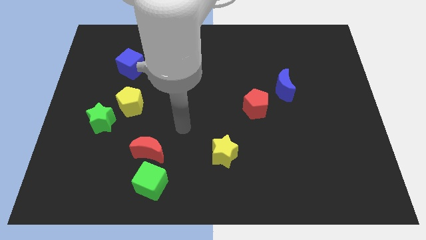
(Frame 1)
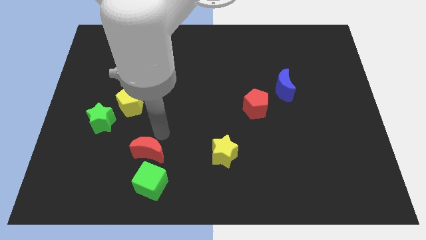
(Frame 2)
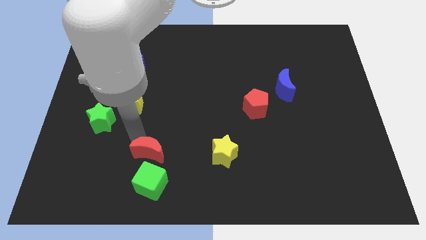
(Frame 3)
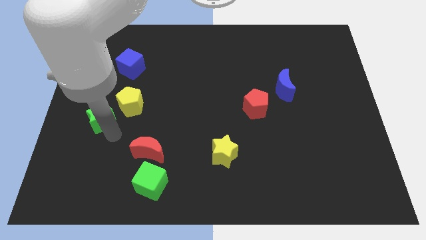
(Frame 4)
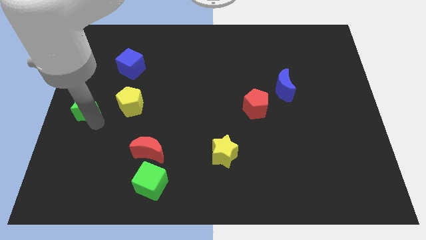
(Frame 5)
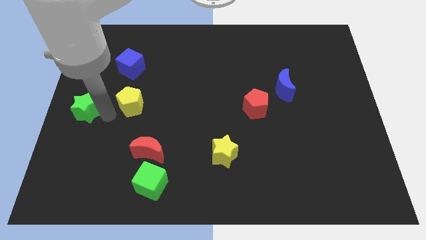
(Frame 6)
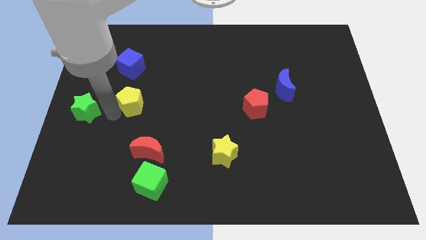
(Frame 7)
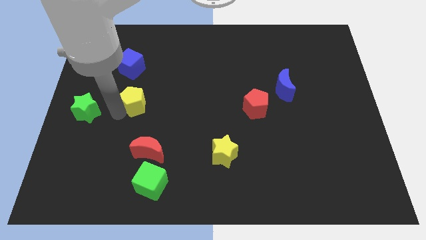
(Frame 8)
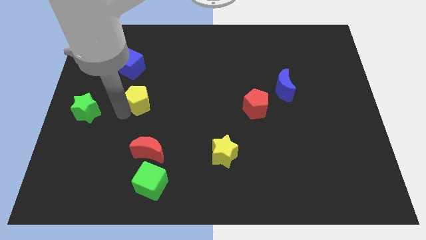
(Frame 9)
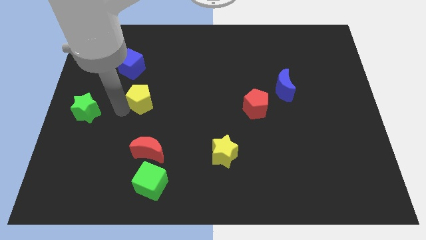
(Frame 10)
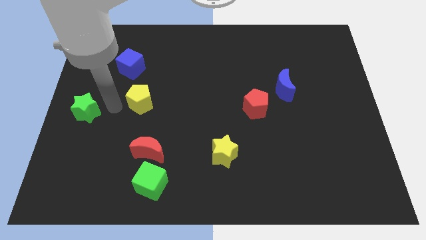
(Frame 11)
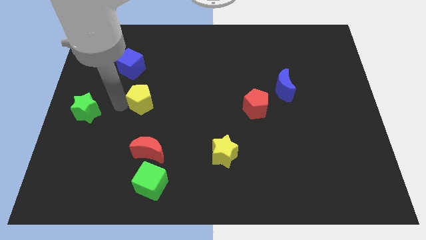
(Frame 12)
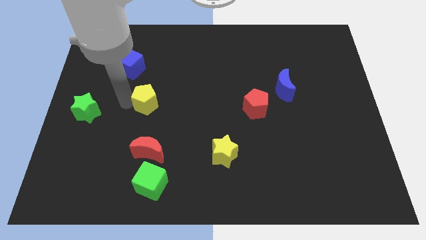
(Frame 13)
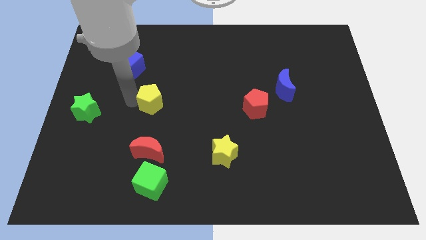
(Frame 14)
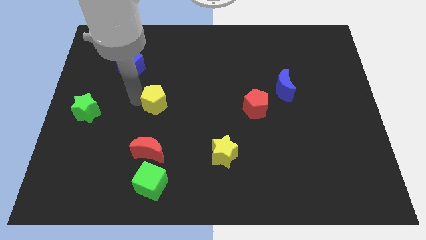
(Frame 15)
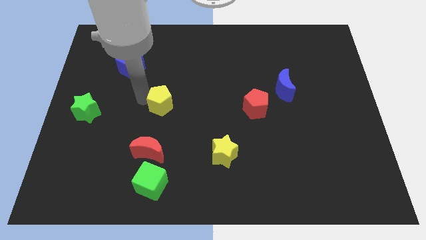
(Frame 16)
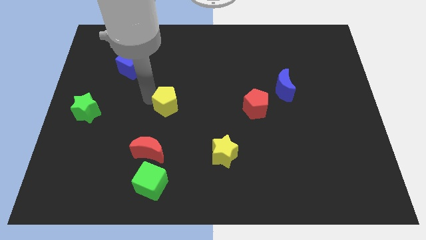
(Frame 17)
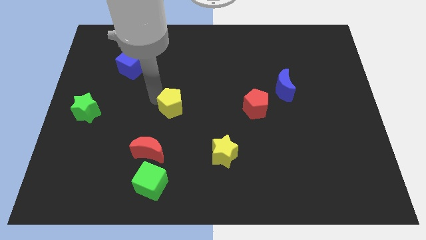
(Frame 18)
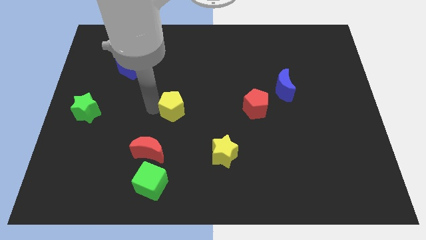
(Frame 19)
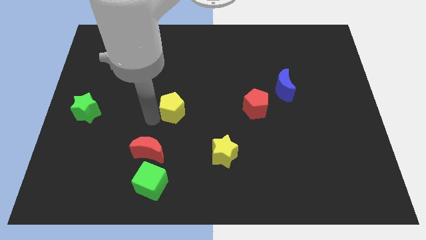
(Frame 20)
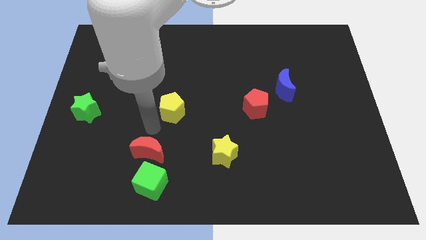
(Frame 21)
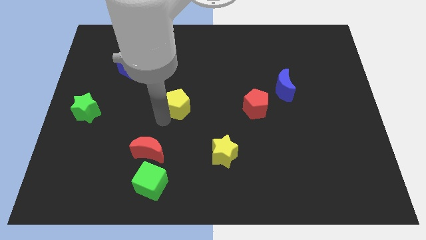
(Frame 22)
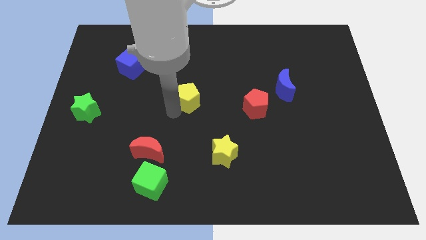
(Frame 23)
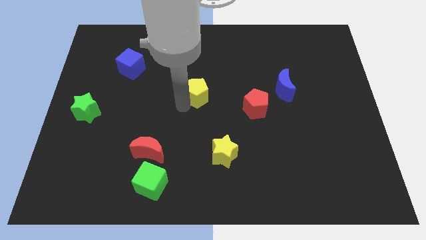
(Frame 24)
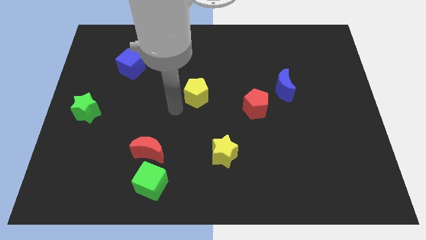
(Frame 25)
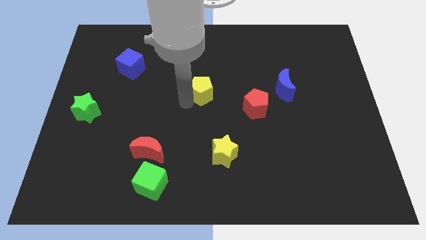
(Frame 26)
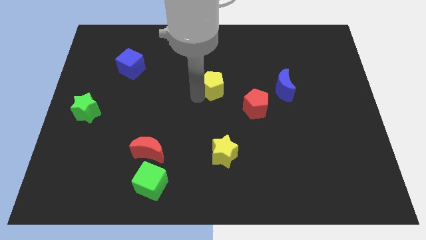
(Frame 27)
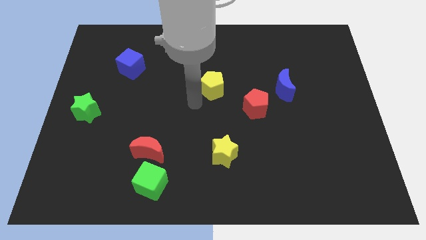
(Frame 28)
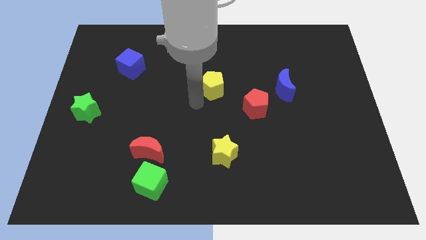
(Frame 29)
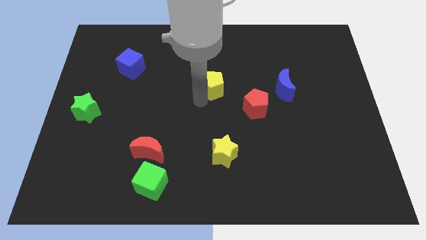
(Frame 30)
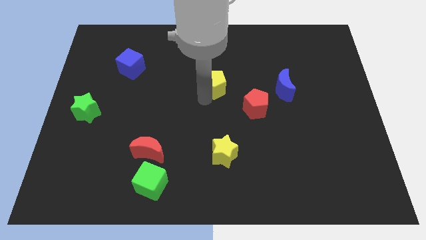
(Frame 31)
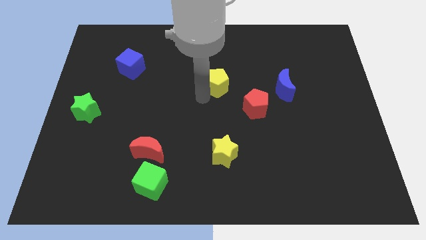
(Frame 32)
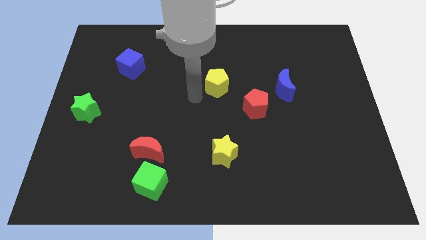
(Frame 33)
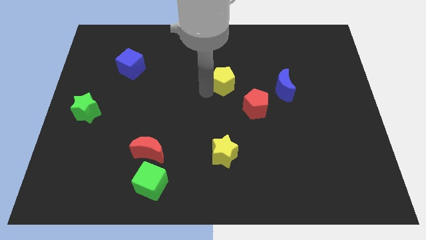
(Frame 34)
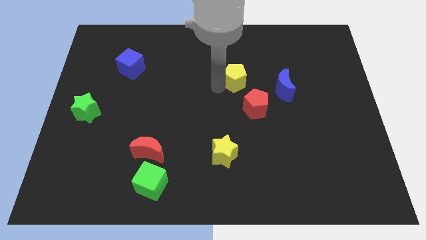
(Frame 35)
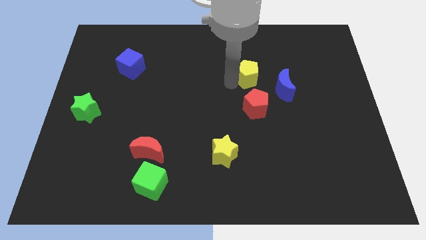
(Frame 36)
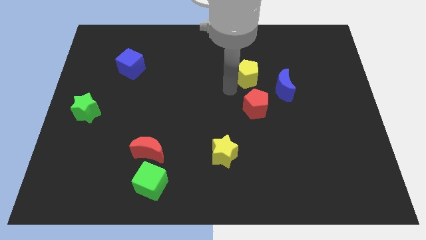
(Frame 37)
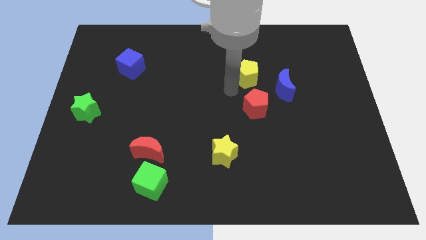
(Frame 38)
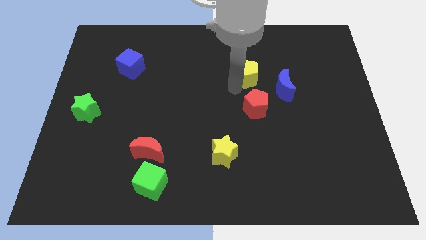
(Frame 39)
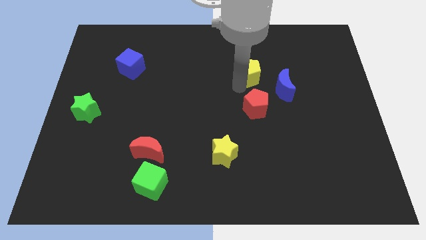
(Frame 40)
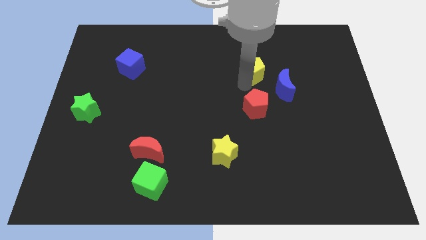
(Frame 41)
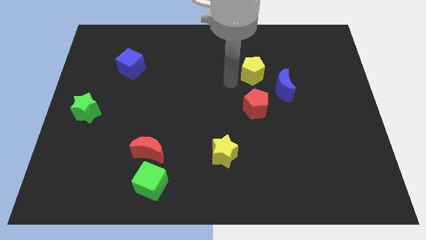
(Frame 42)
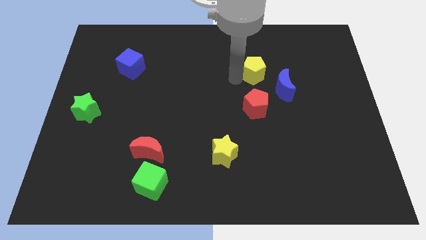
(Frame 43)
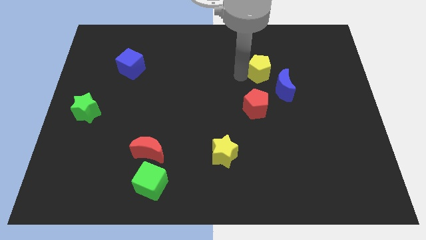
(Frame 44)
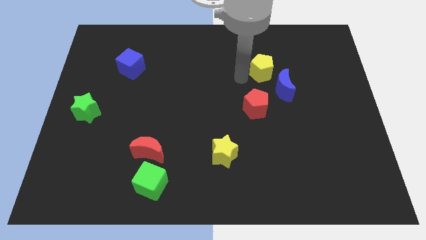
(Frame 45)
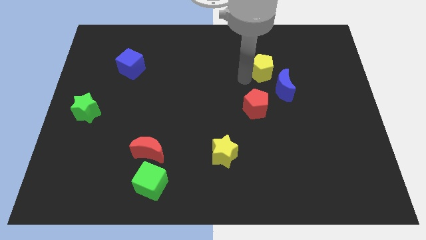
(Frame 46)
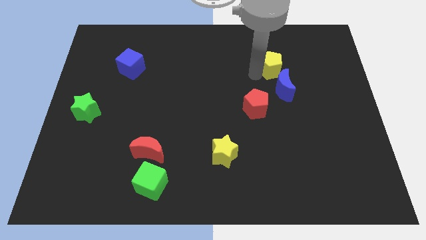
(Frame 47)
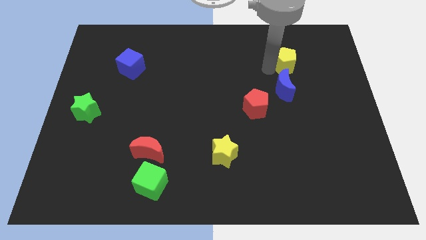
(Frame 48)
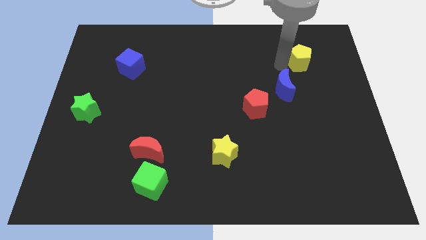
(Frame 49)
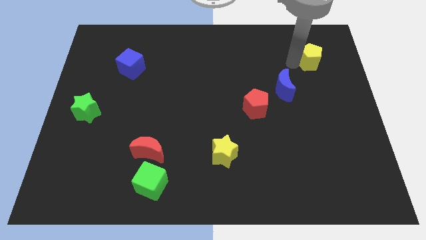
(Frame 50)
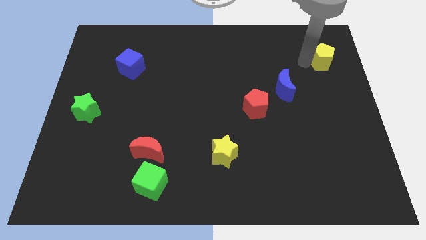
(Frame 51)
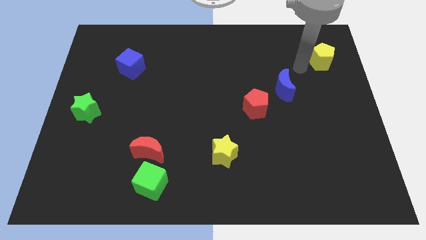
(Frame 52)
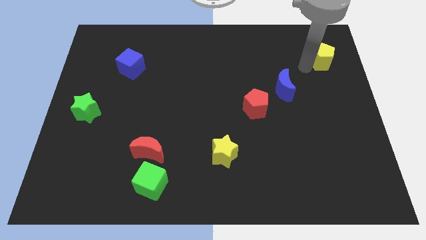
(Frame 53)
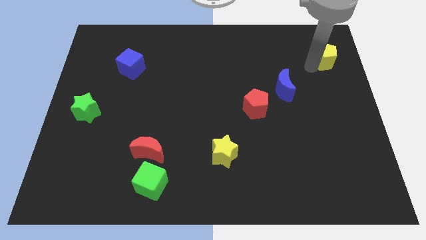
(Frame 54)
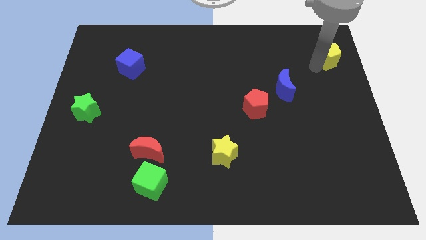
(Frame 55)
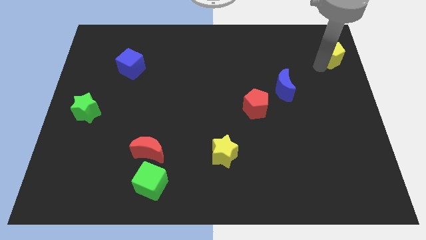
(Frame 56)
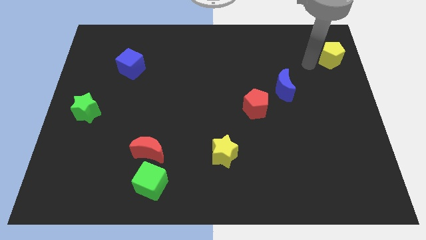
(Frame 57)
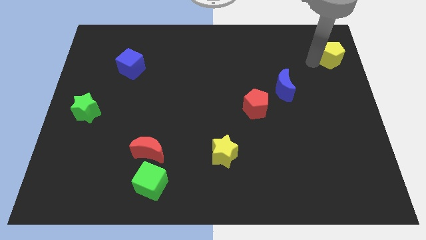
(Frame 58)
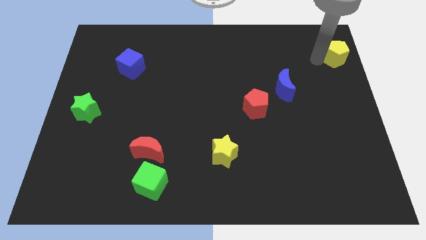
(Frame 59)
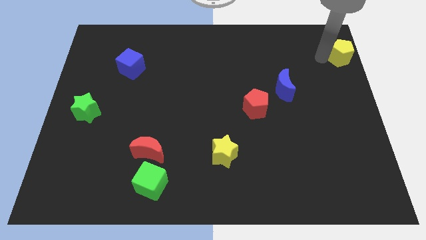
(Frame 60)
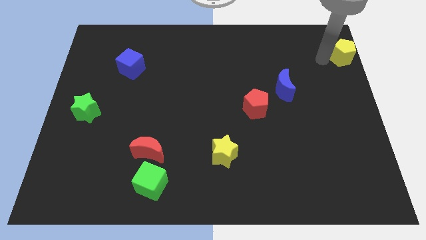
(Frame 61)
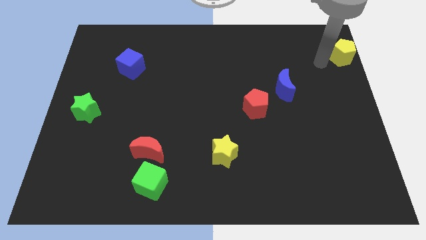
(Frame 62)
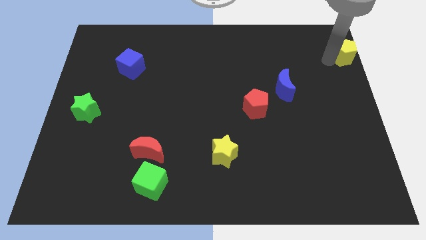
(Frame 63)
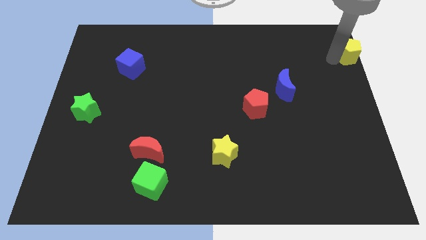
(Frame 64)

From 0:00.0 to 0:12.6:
move the yellow pentagon to the upper right corner
